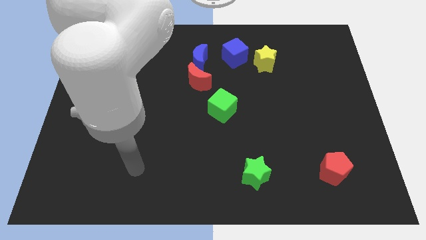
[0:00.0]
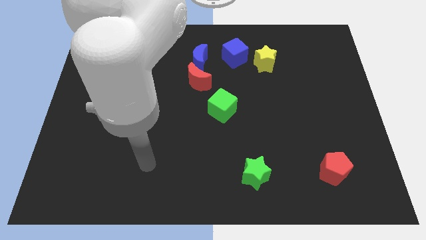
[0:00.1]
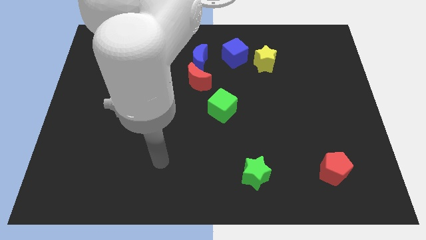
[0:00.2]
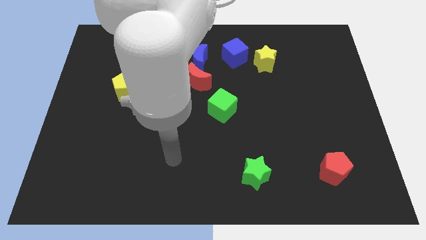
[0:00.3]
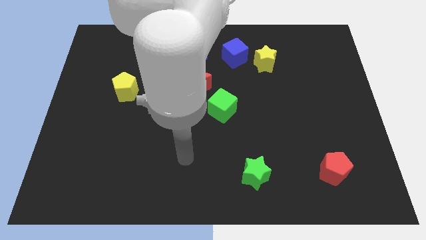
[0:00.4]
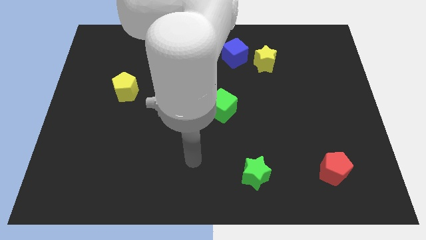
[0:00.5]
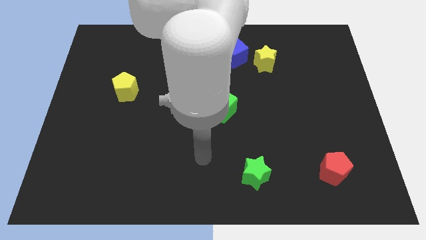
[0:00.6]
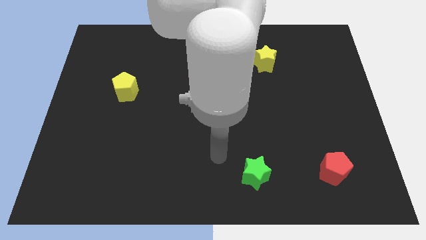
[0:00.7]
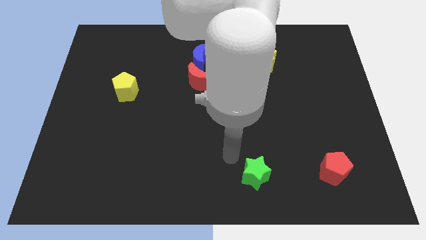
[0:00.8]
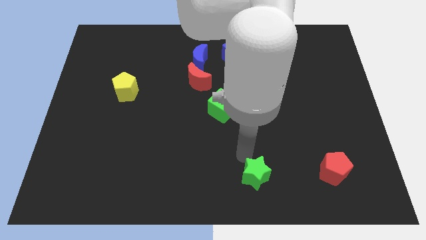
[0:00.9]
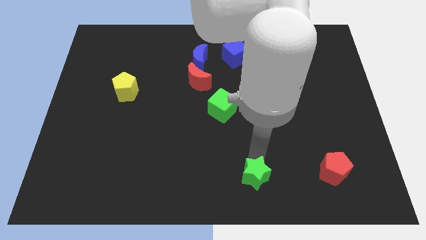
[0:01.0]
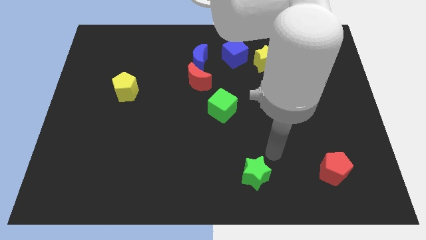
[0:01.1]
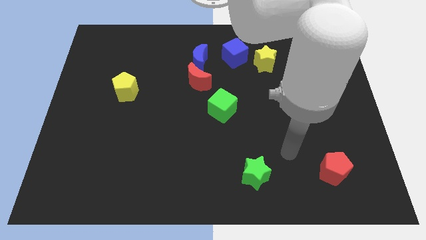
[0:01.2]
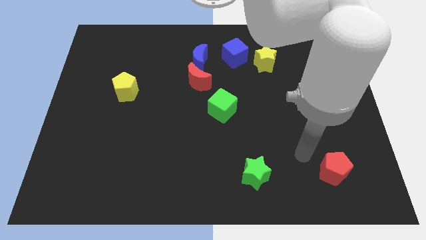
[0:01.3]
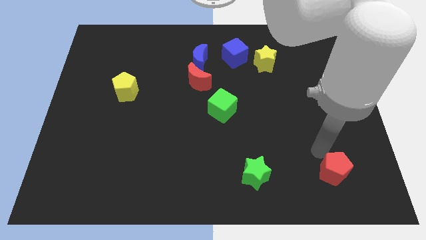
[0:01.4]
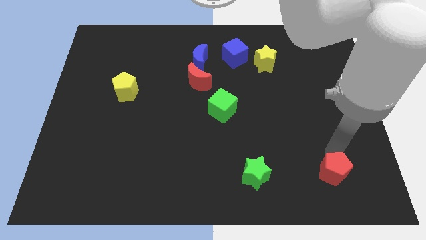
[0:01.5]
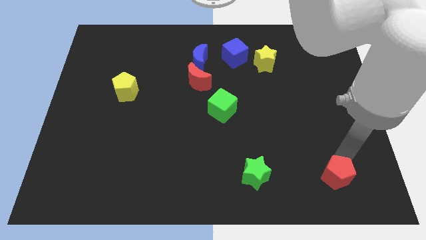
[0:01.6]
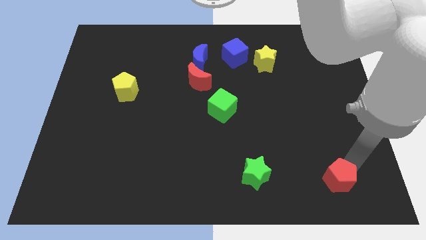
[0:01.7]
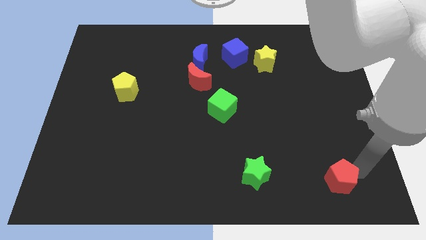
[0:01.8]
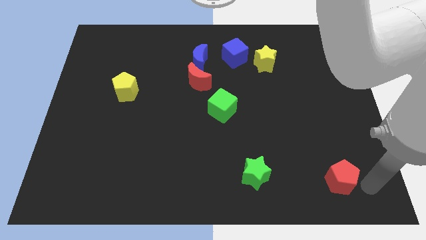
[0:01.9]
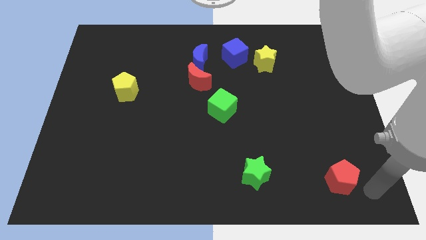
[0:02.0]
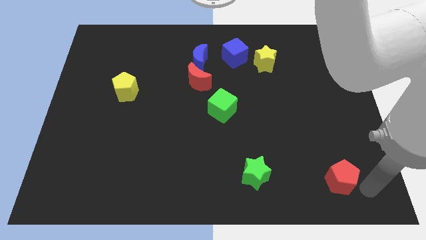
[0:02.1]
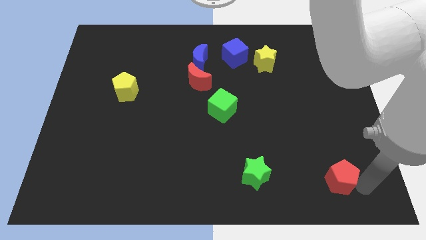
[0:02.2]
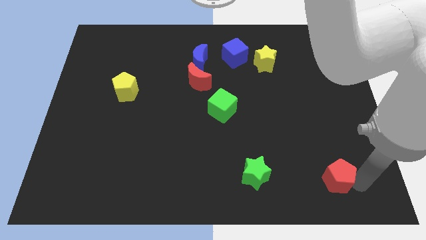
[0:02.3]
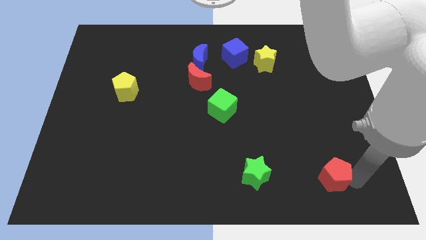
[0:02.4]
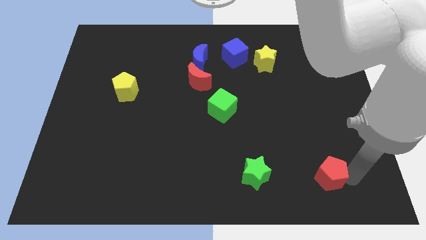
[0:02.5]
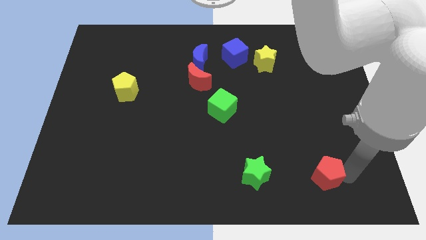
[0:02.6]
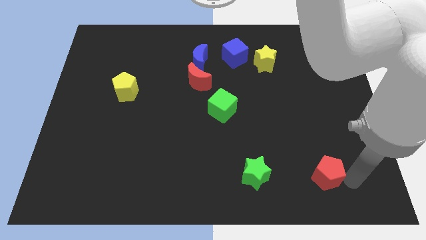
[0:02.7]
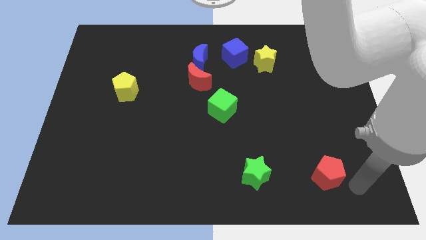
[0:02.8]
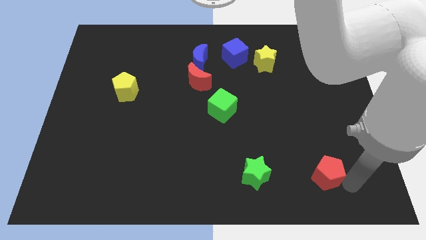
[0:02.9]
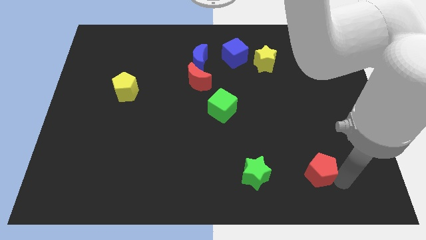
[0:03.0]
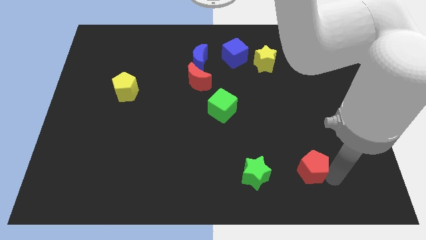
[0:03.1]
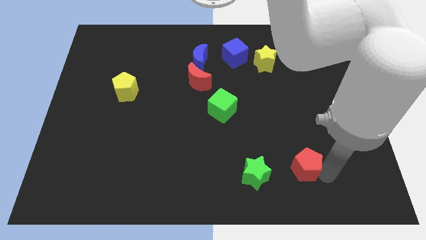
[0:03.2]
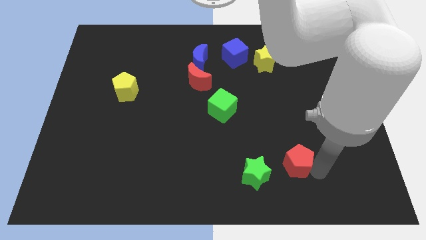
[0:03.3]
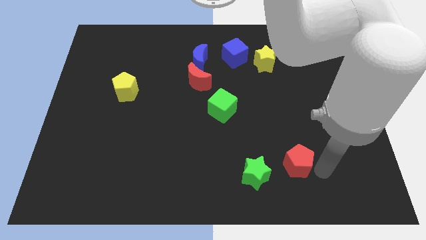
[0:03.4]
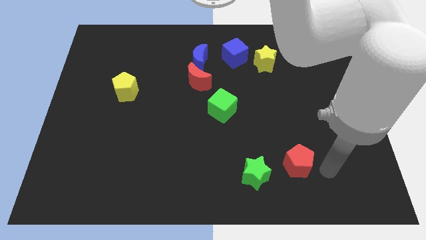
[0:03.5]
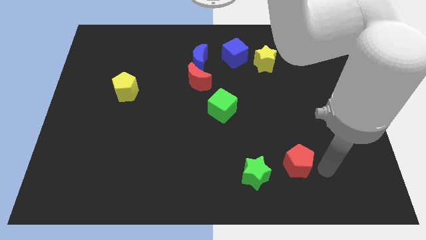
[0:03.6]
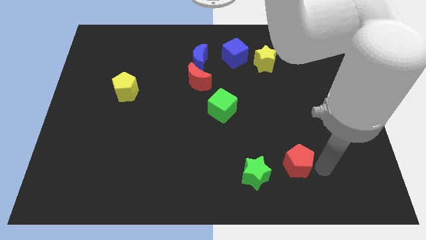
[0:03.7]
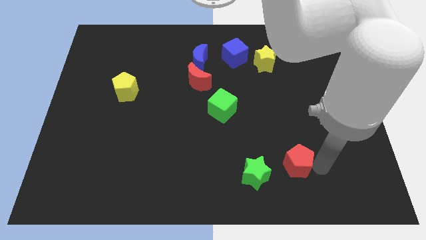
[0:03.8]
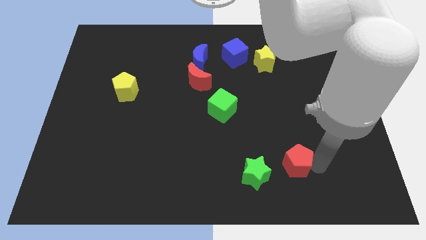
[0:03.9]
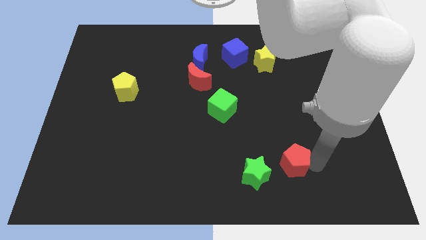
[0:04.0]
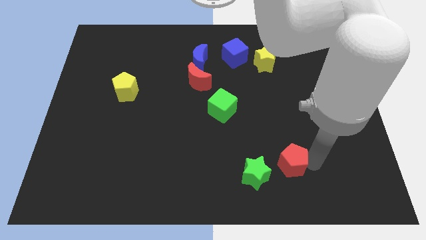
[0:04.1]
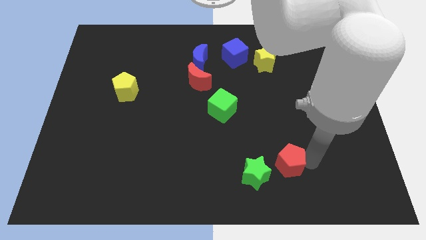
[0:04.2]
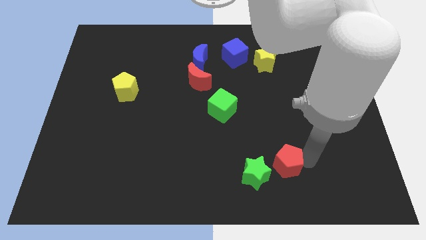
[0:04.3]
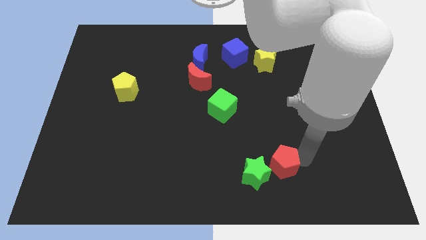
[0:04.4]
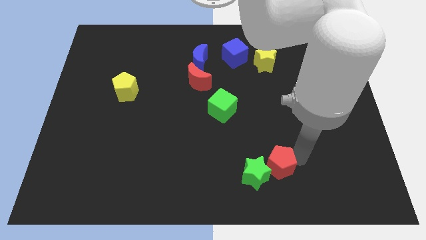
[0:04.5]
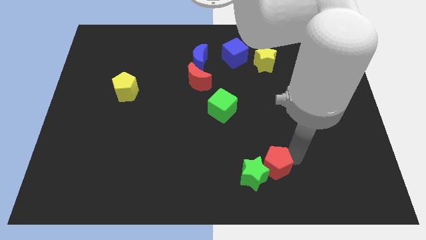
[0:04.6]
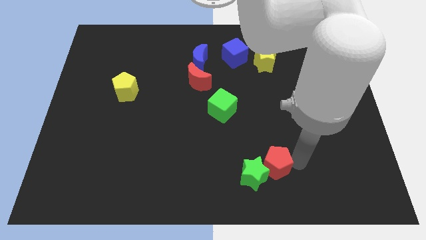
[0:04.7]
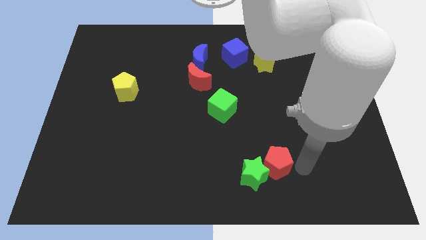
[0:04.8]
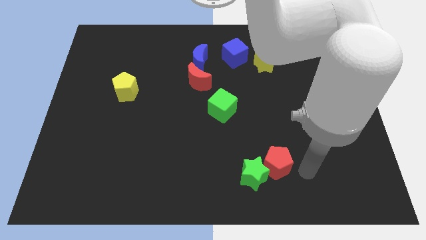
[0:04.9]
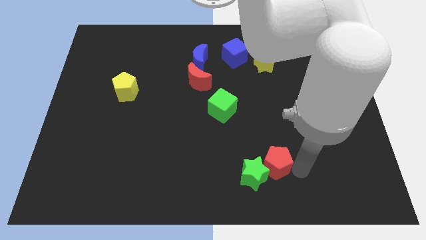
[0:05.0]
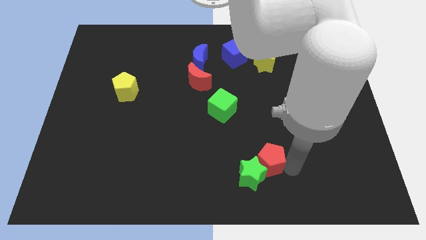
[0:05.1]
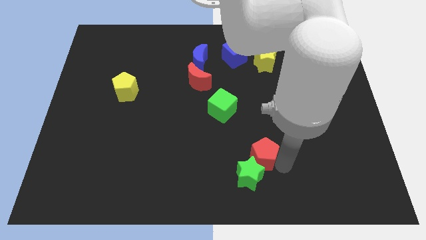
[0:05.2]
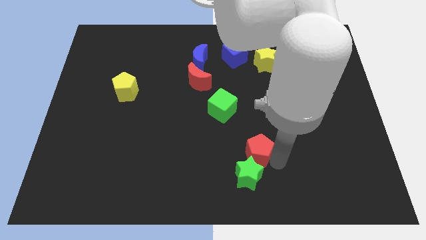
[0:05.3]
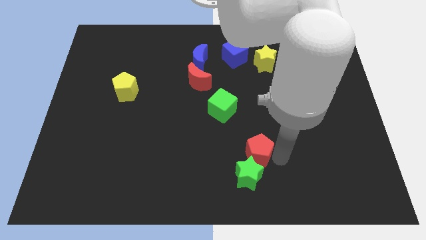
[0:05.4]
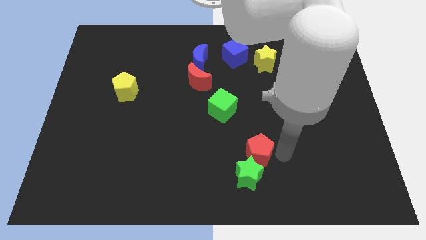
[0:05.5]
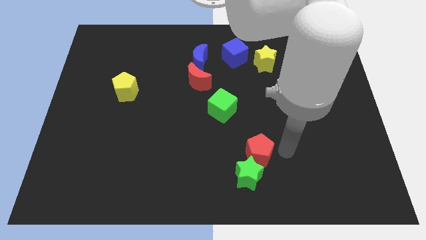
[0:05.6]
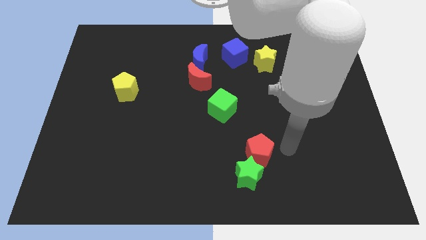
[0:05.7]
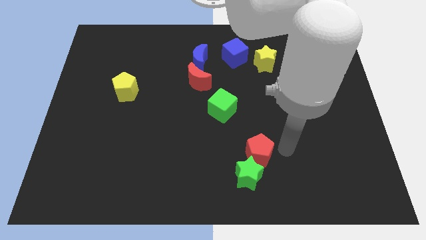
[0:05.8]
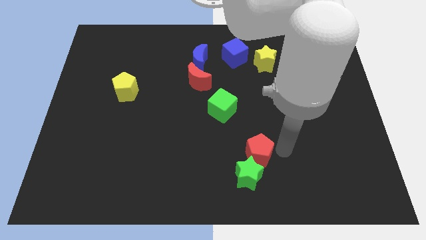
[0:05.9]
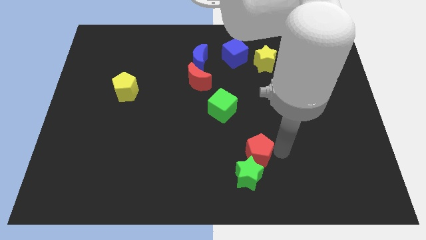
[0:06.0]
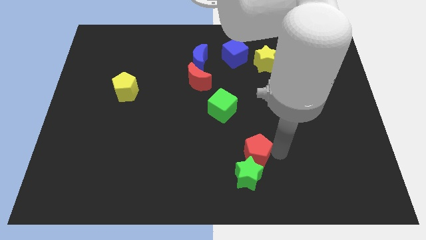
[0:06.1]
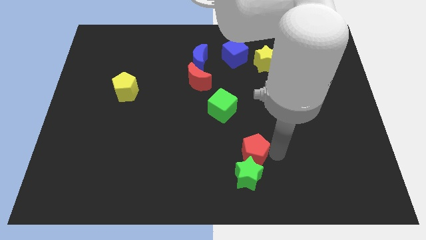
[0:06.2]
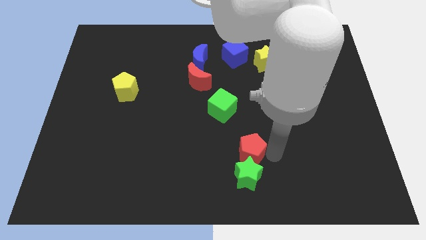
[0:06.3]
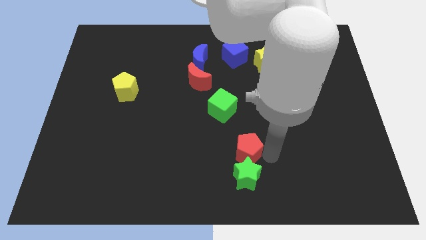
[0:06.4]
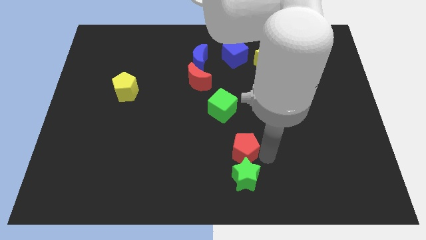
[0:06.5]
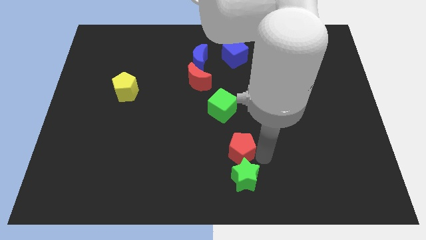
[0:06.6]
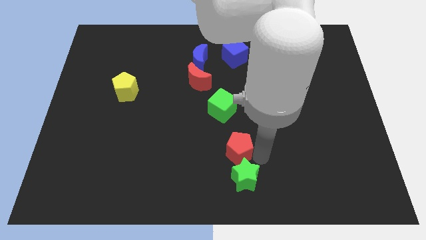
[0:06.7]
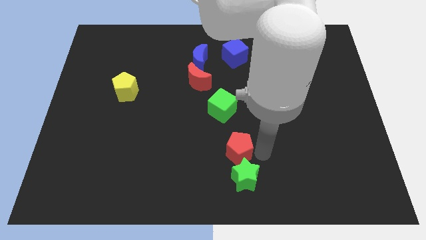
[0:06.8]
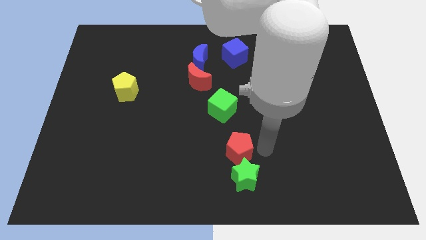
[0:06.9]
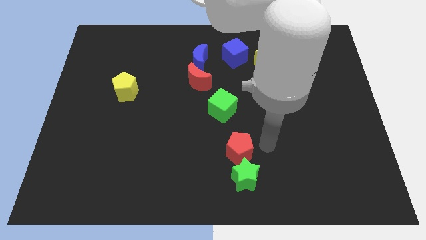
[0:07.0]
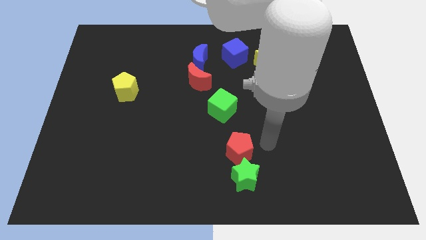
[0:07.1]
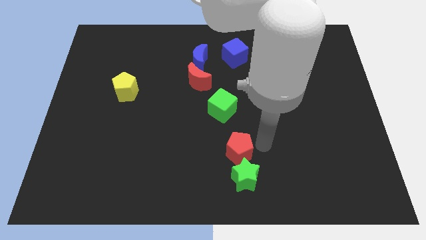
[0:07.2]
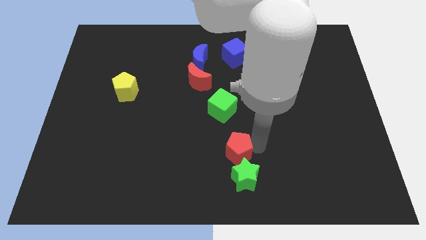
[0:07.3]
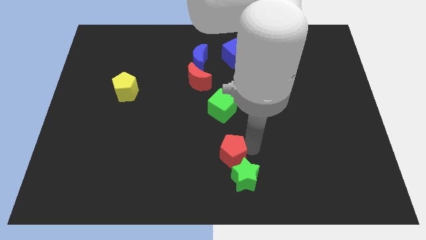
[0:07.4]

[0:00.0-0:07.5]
move the red pentagon left

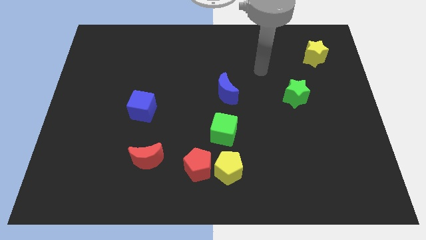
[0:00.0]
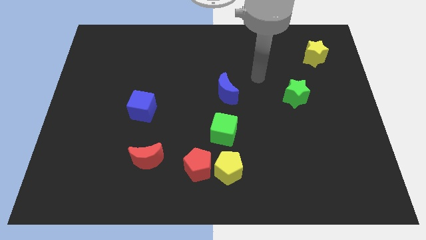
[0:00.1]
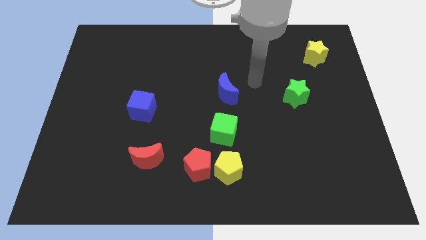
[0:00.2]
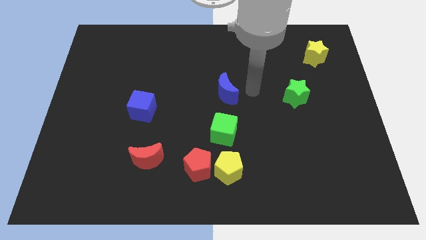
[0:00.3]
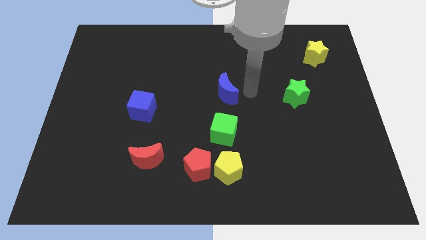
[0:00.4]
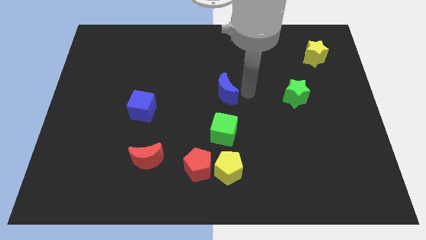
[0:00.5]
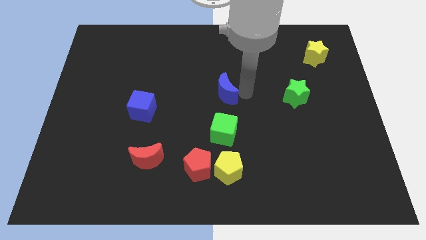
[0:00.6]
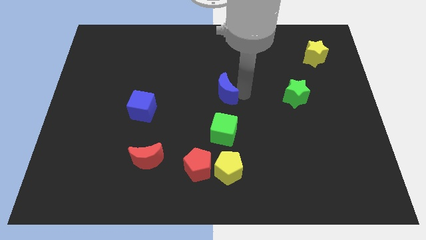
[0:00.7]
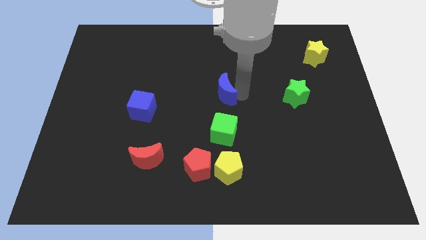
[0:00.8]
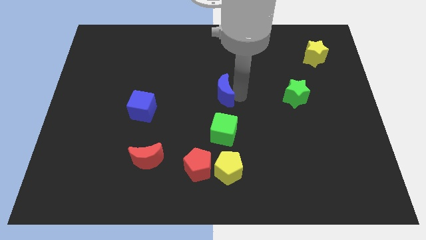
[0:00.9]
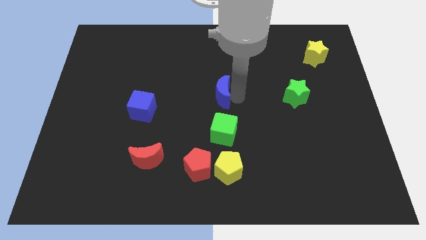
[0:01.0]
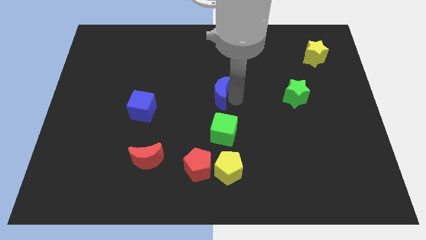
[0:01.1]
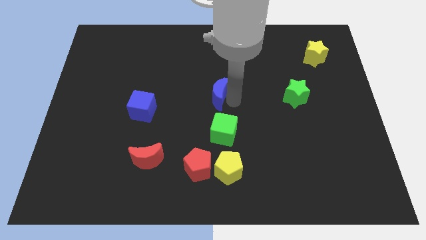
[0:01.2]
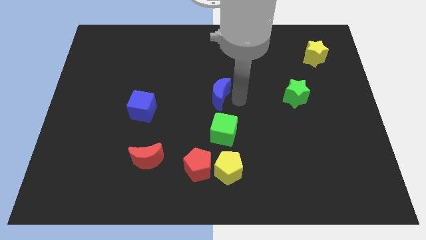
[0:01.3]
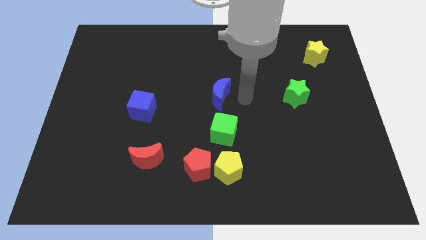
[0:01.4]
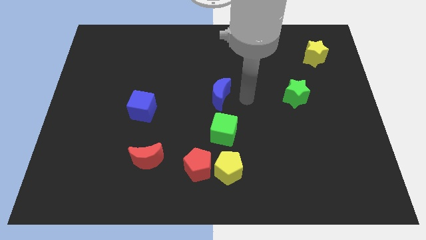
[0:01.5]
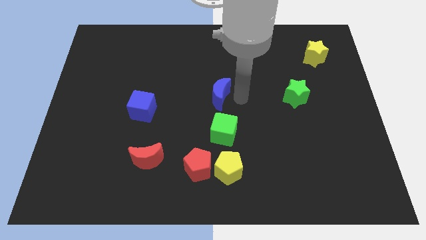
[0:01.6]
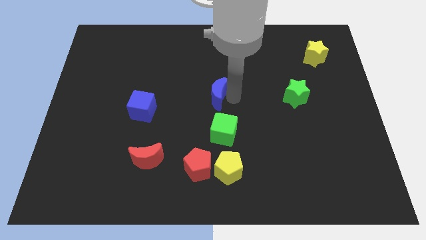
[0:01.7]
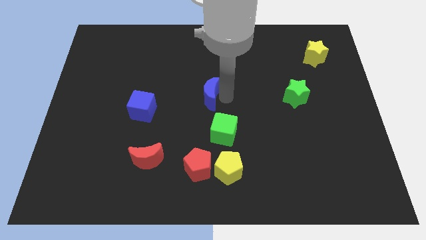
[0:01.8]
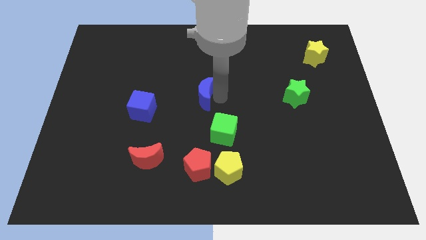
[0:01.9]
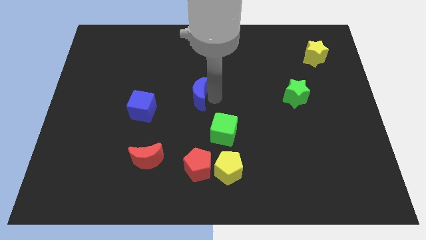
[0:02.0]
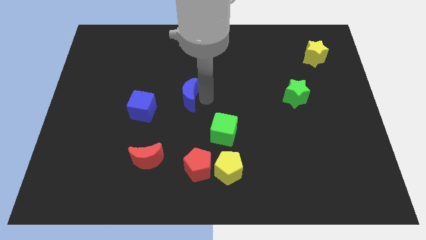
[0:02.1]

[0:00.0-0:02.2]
push the blue moon to the left a little bit
